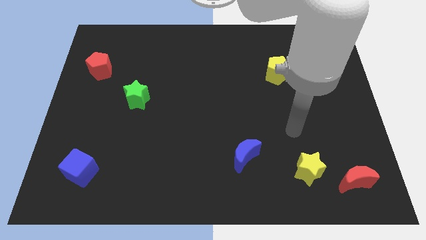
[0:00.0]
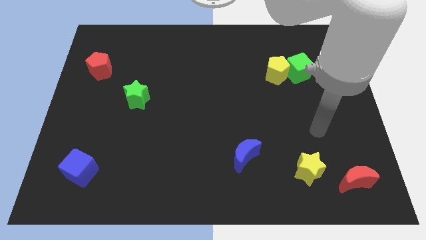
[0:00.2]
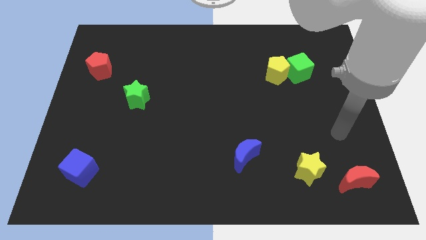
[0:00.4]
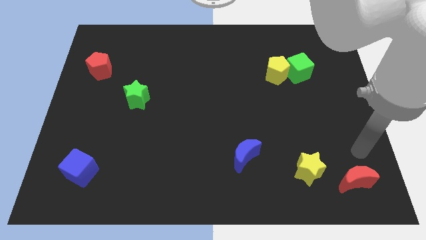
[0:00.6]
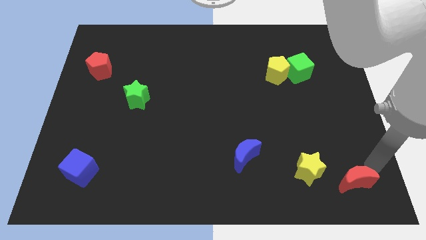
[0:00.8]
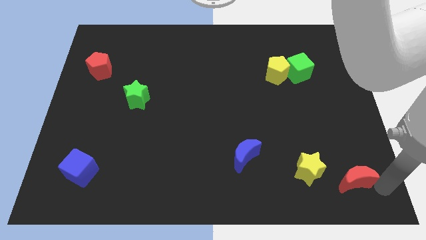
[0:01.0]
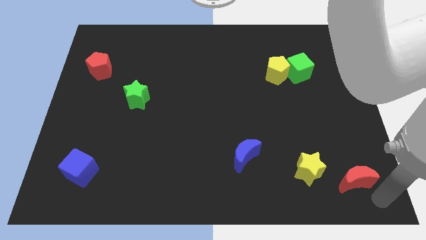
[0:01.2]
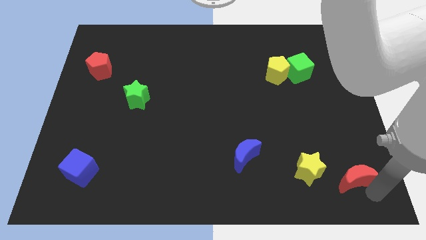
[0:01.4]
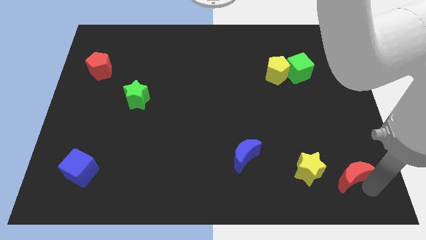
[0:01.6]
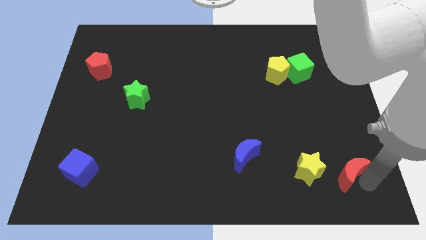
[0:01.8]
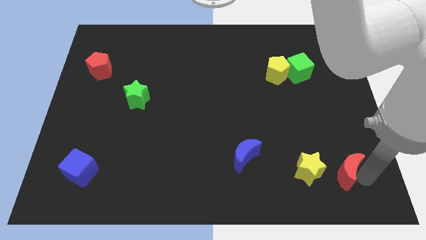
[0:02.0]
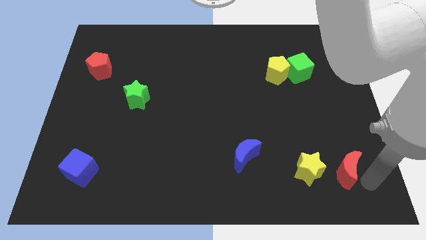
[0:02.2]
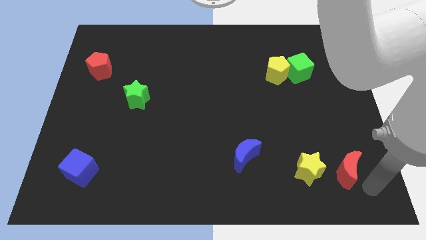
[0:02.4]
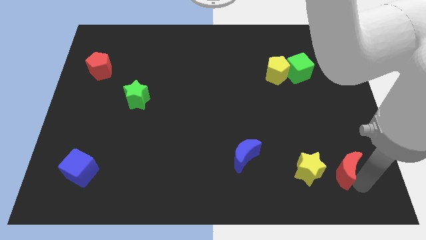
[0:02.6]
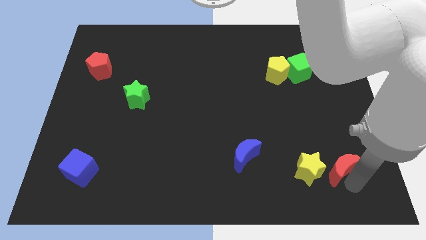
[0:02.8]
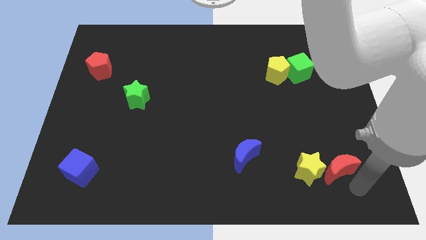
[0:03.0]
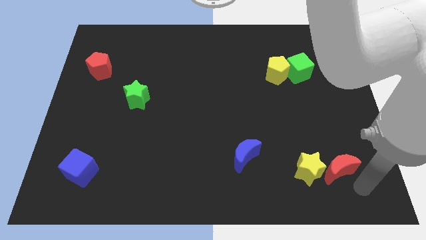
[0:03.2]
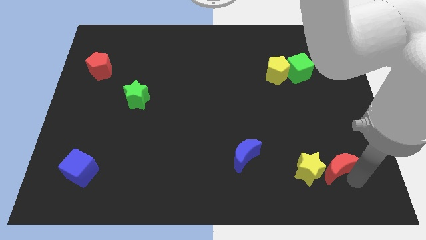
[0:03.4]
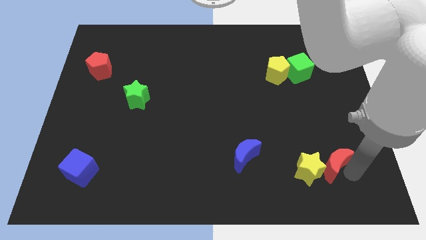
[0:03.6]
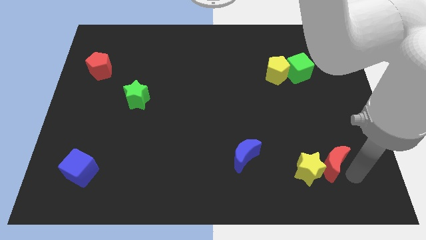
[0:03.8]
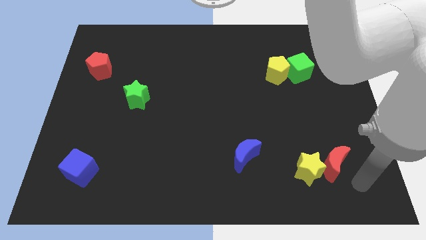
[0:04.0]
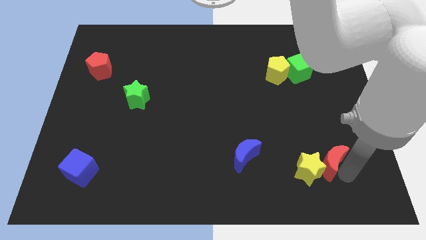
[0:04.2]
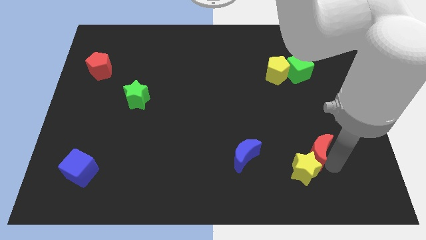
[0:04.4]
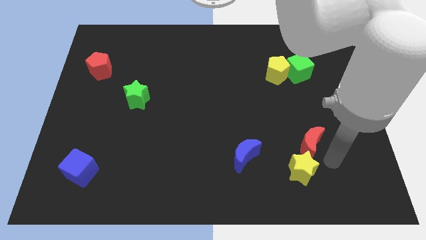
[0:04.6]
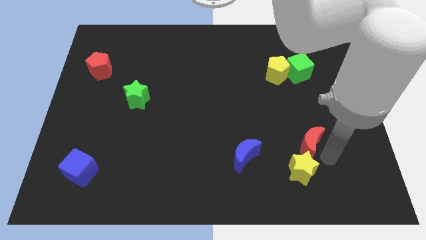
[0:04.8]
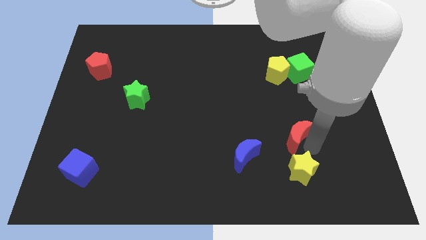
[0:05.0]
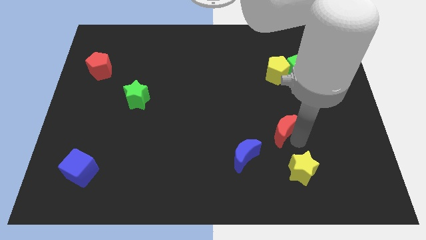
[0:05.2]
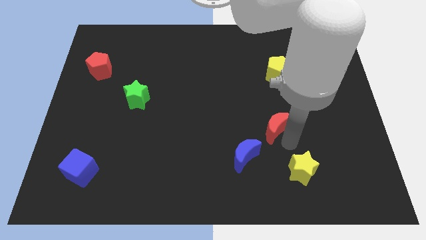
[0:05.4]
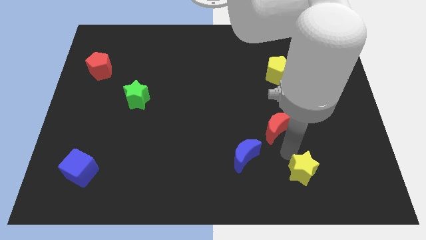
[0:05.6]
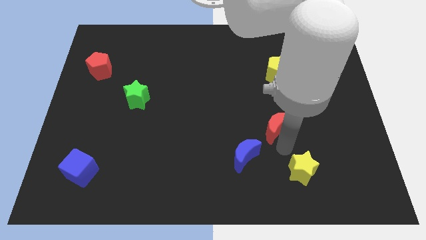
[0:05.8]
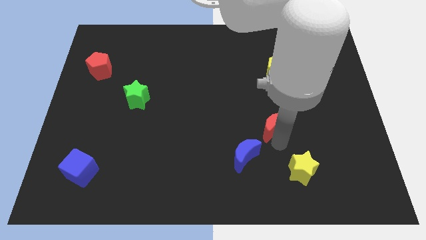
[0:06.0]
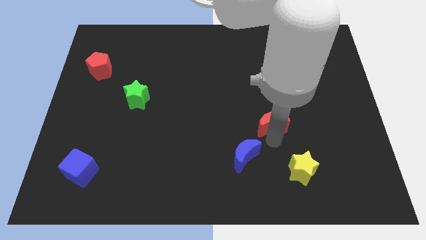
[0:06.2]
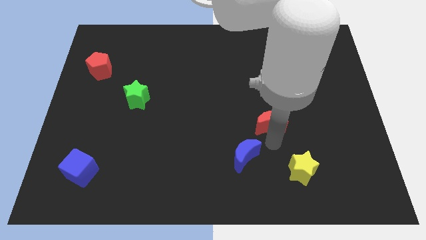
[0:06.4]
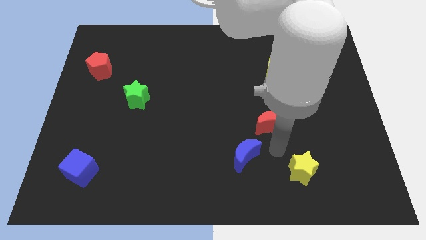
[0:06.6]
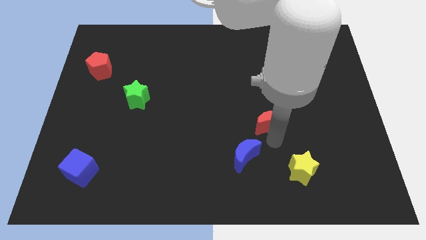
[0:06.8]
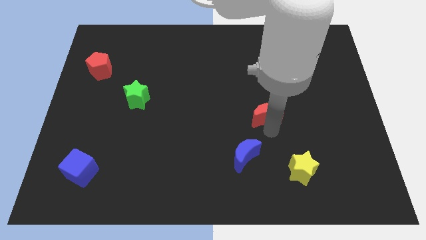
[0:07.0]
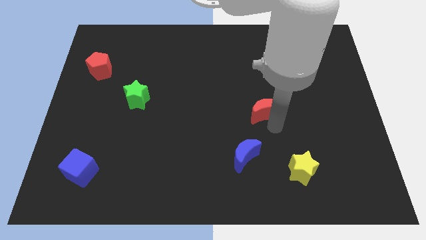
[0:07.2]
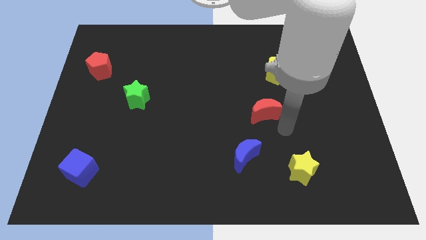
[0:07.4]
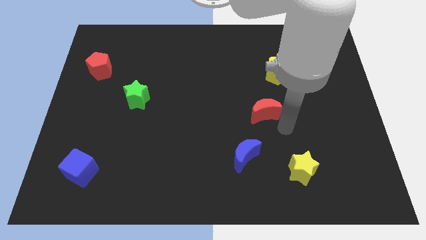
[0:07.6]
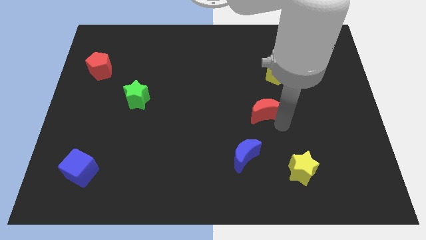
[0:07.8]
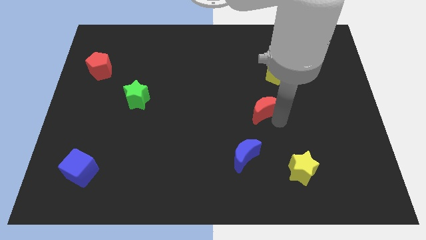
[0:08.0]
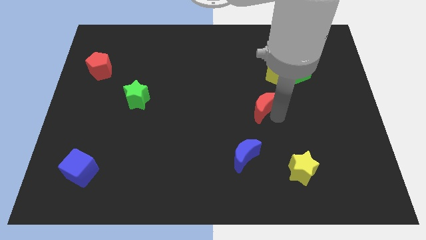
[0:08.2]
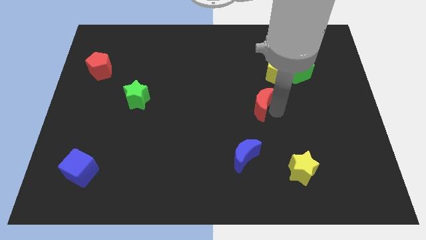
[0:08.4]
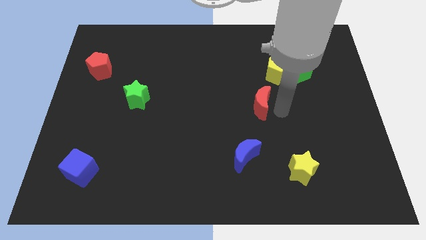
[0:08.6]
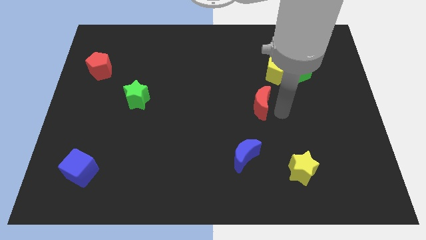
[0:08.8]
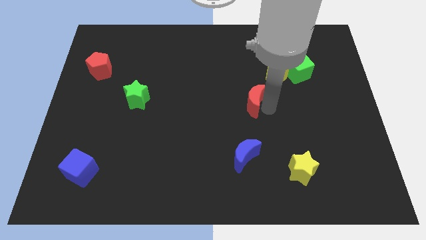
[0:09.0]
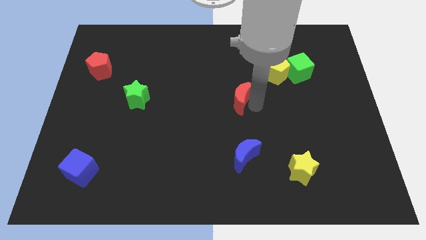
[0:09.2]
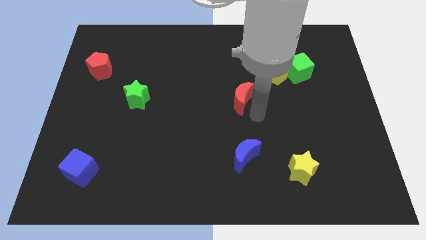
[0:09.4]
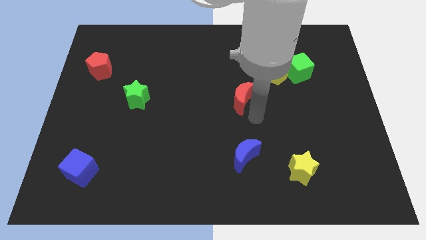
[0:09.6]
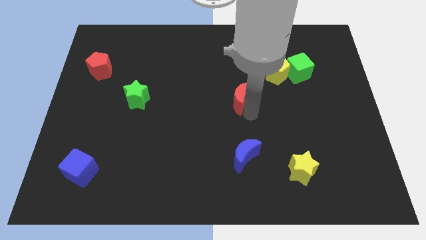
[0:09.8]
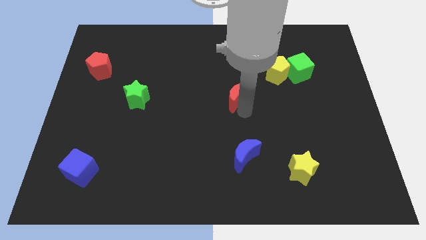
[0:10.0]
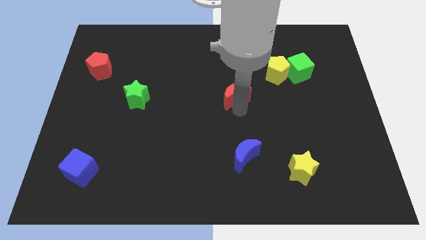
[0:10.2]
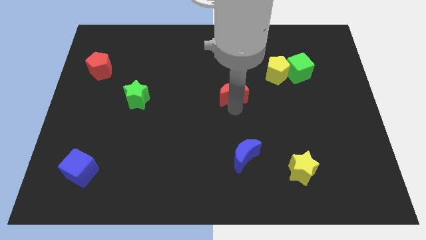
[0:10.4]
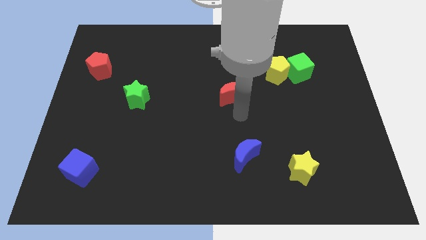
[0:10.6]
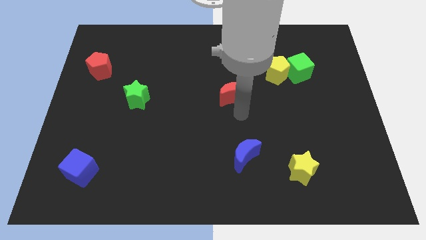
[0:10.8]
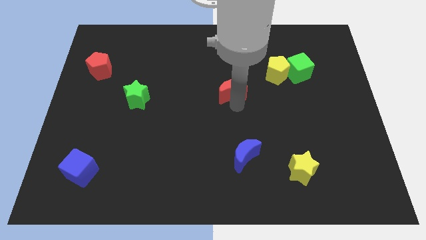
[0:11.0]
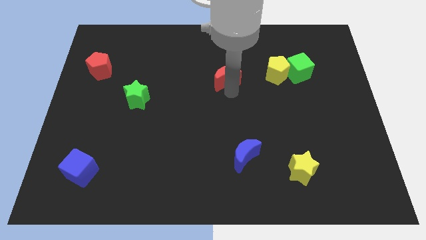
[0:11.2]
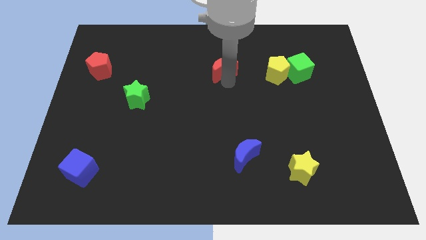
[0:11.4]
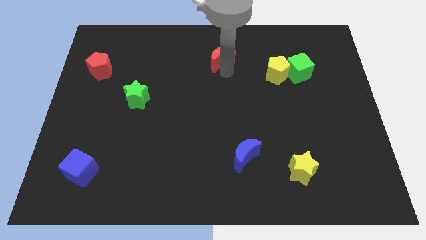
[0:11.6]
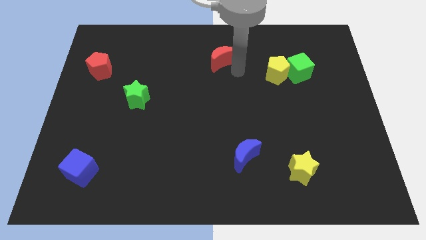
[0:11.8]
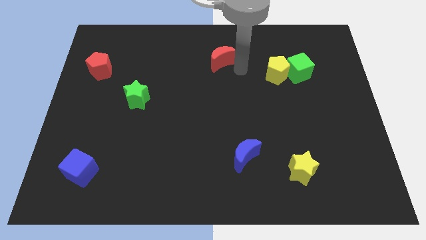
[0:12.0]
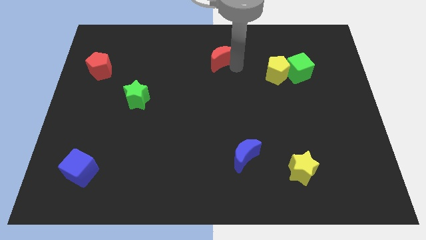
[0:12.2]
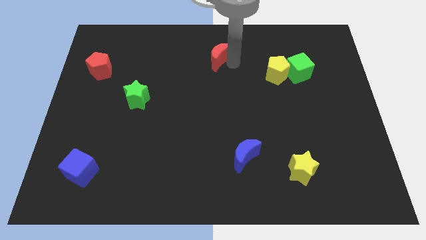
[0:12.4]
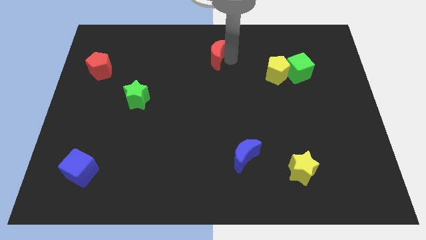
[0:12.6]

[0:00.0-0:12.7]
slide the red moon to the top

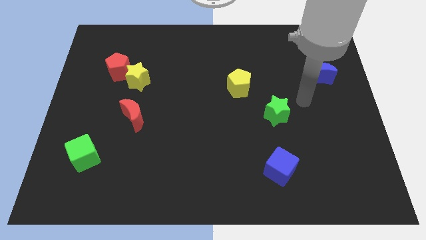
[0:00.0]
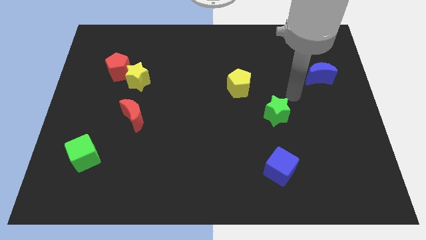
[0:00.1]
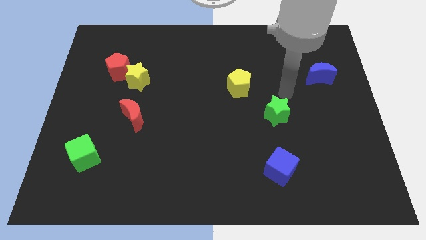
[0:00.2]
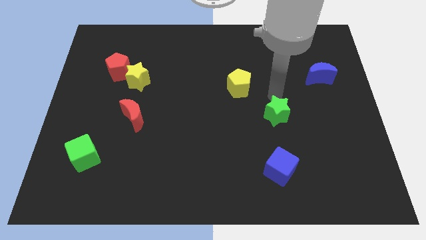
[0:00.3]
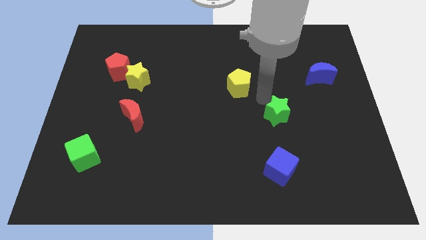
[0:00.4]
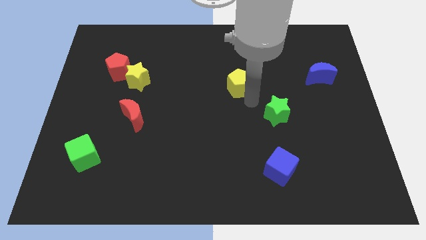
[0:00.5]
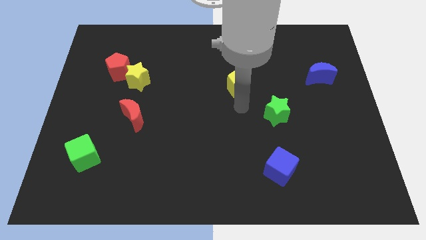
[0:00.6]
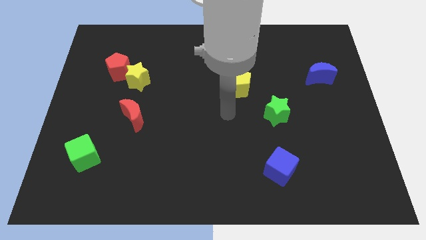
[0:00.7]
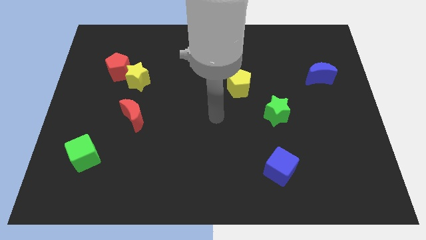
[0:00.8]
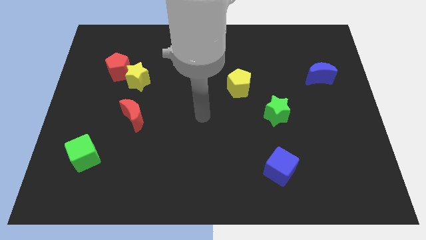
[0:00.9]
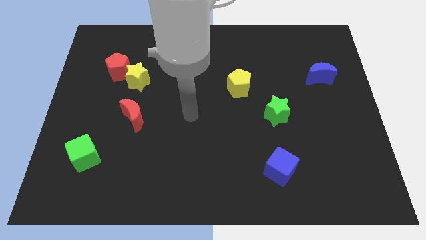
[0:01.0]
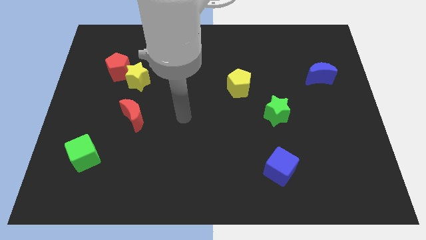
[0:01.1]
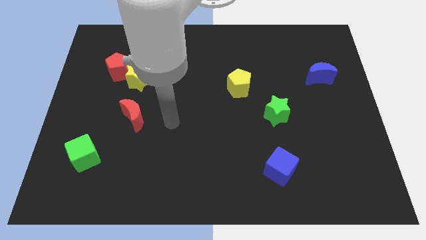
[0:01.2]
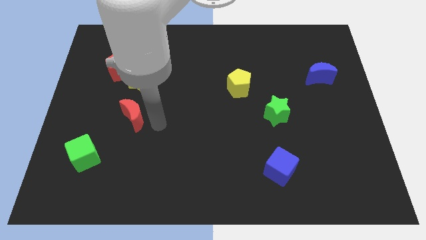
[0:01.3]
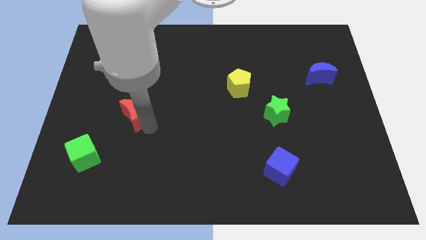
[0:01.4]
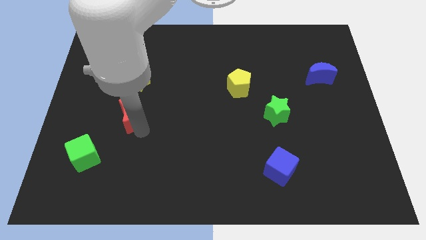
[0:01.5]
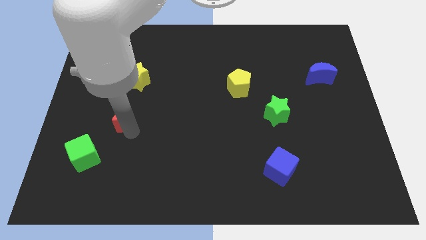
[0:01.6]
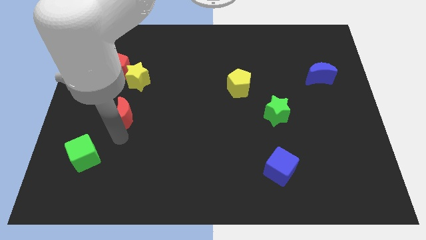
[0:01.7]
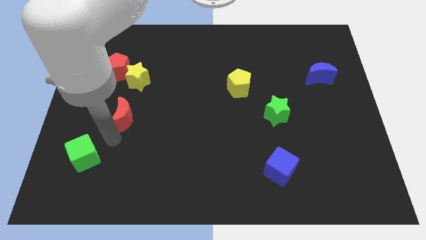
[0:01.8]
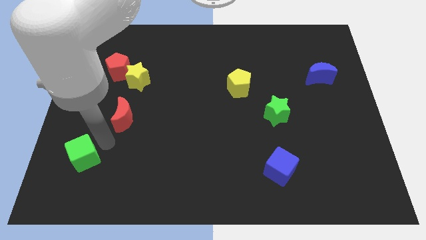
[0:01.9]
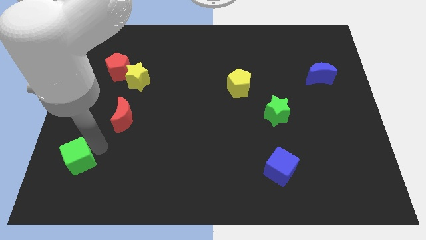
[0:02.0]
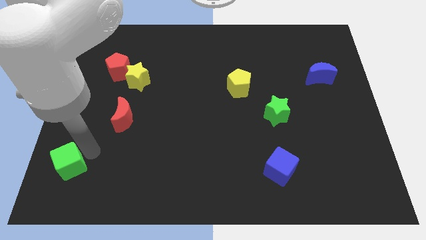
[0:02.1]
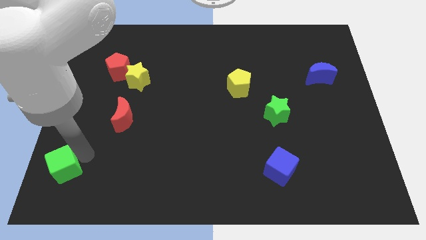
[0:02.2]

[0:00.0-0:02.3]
move the green cube to the lower left corner
